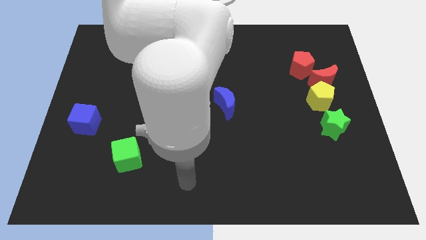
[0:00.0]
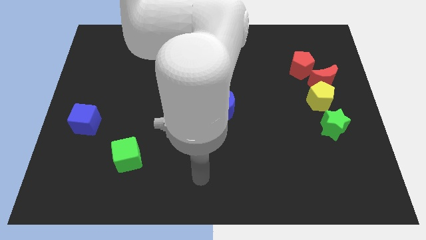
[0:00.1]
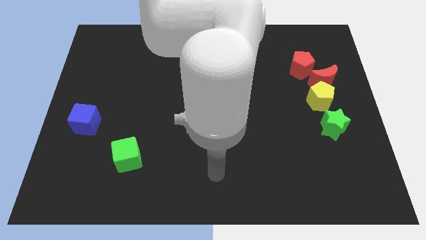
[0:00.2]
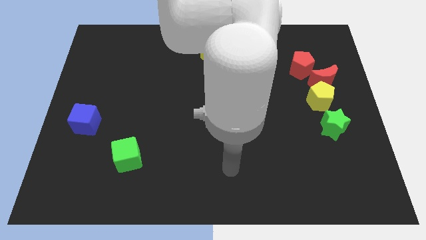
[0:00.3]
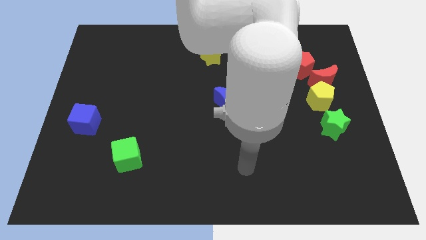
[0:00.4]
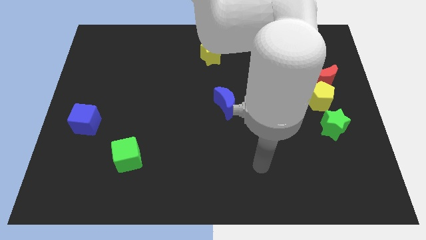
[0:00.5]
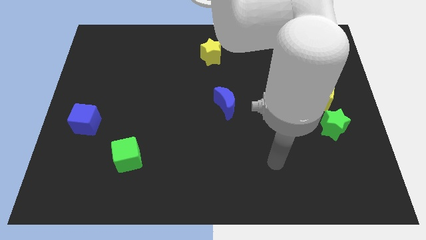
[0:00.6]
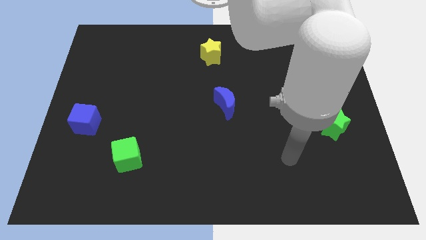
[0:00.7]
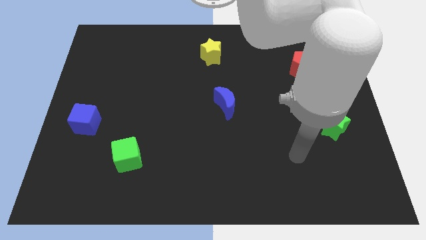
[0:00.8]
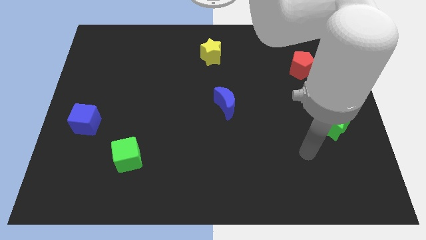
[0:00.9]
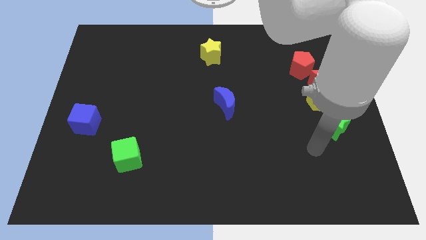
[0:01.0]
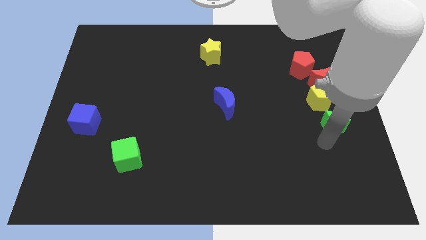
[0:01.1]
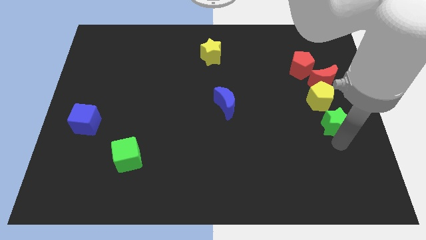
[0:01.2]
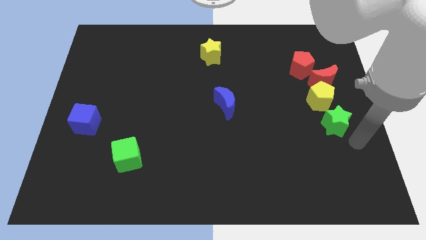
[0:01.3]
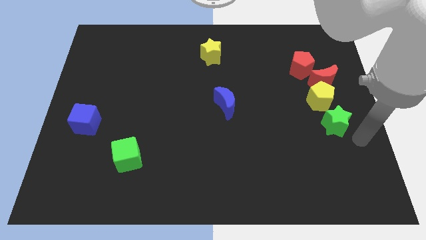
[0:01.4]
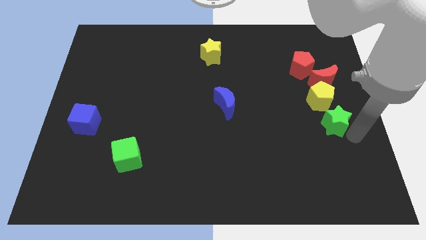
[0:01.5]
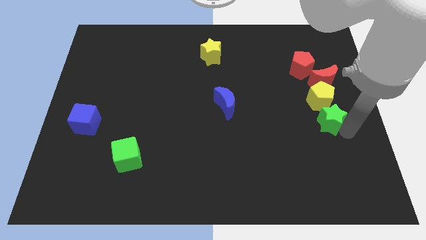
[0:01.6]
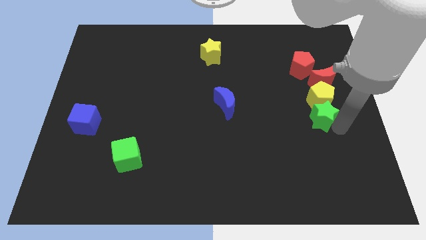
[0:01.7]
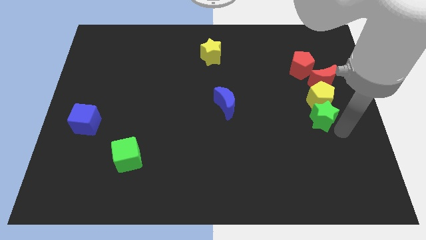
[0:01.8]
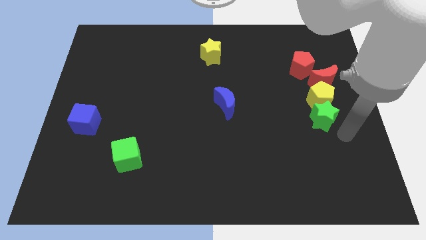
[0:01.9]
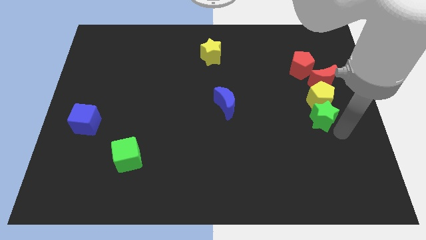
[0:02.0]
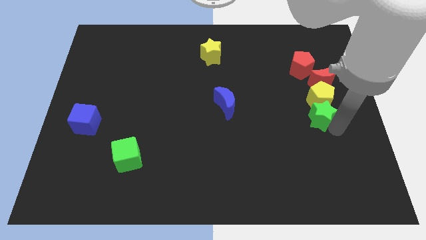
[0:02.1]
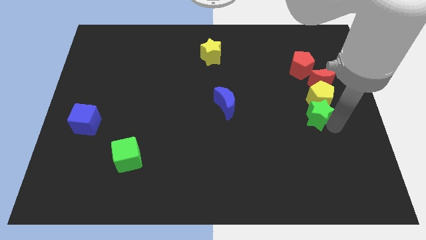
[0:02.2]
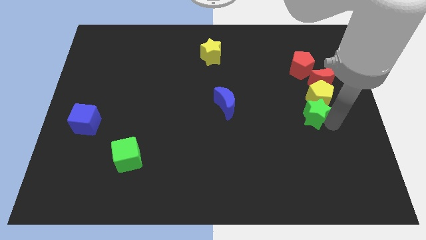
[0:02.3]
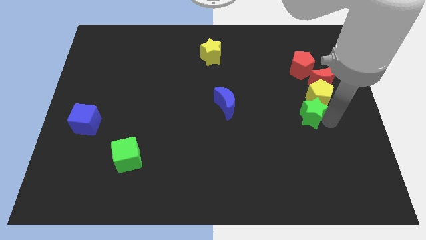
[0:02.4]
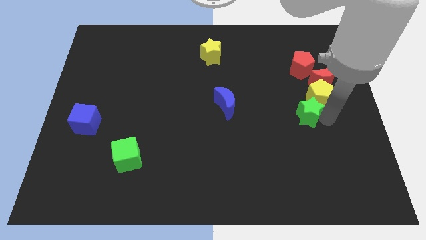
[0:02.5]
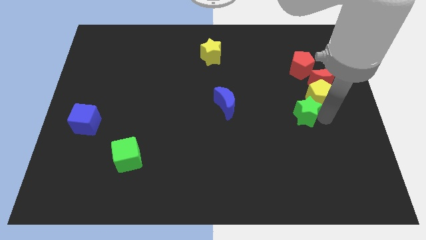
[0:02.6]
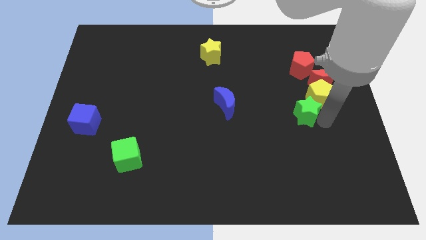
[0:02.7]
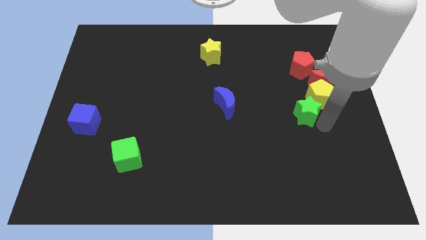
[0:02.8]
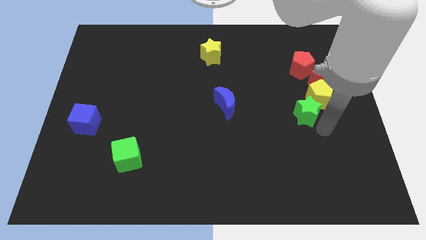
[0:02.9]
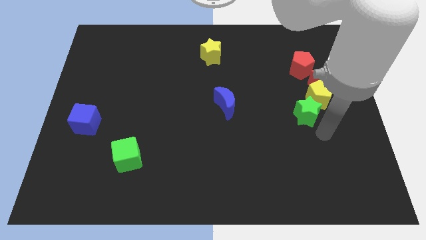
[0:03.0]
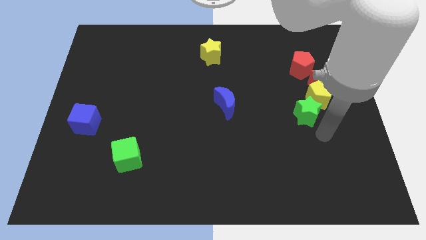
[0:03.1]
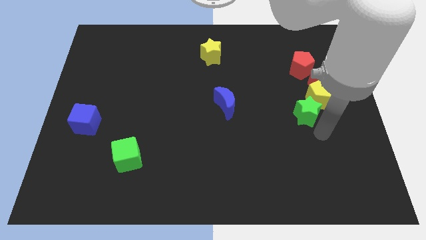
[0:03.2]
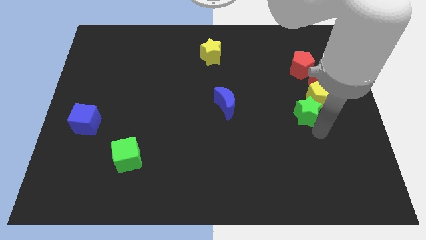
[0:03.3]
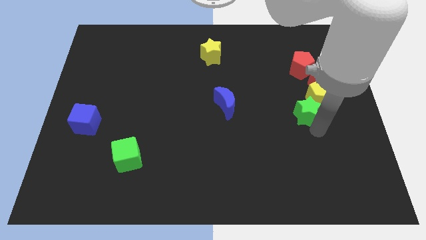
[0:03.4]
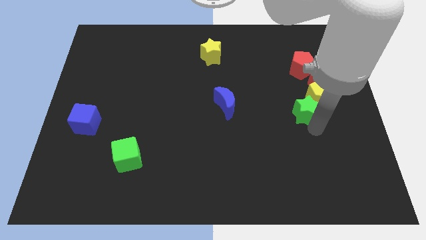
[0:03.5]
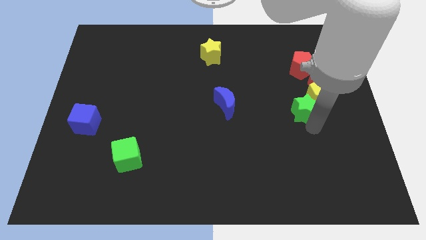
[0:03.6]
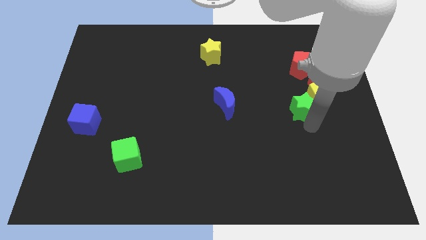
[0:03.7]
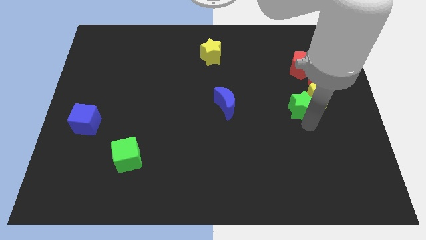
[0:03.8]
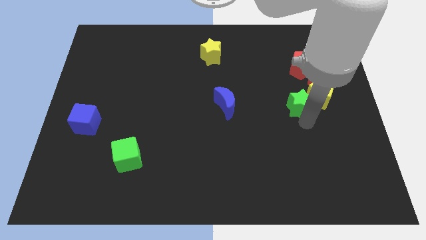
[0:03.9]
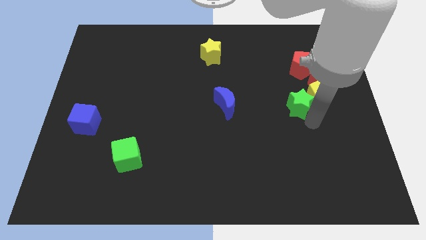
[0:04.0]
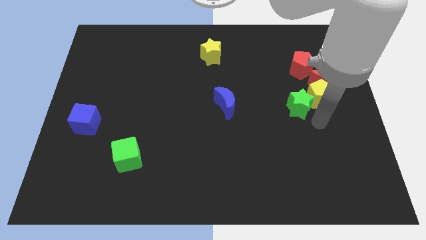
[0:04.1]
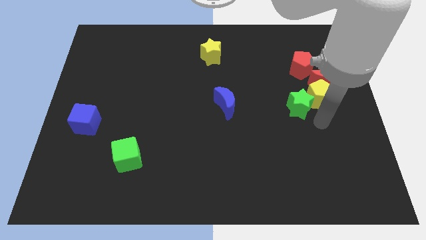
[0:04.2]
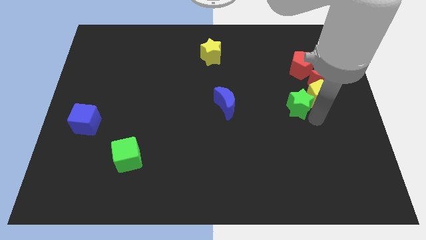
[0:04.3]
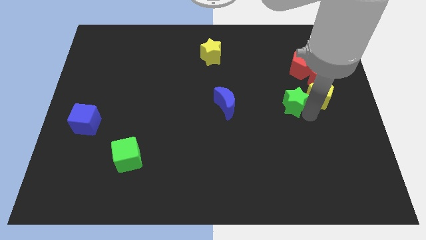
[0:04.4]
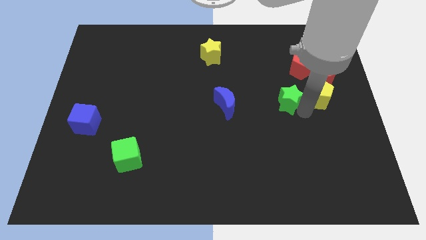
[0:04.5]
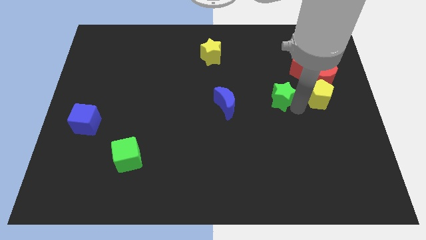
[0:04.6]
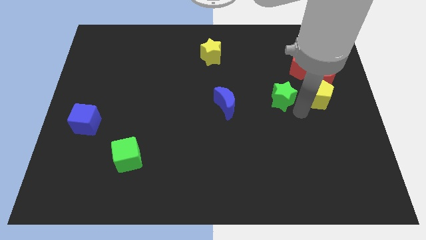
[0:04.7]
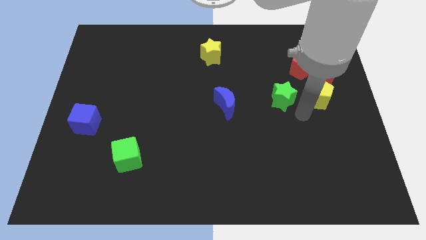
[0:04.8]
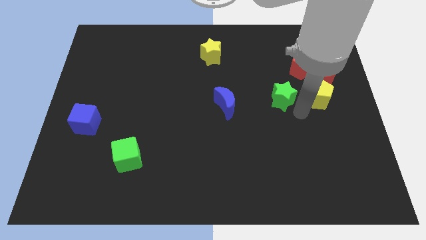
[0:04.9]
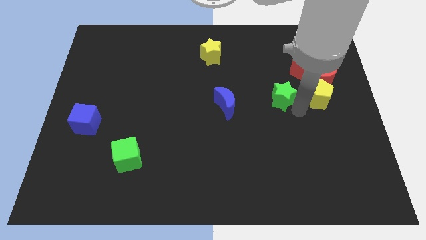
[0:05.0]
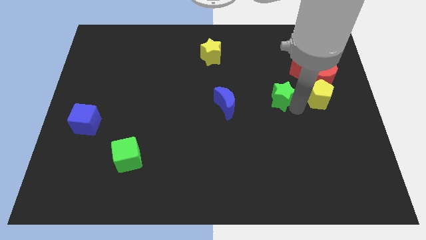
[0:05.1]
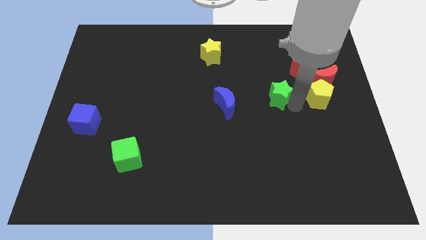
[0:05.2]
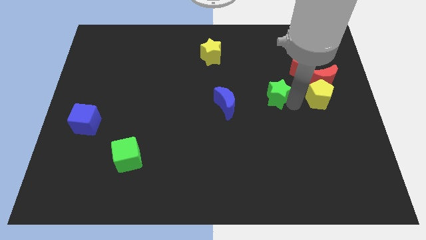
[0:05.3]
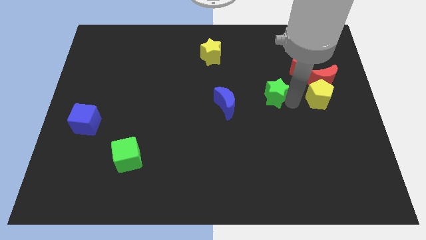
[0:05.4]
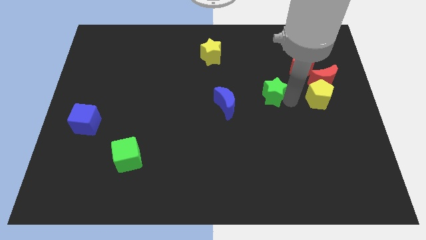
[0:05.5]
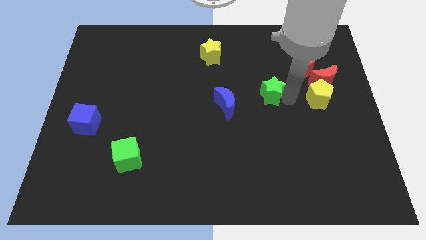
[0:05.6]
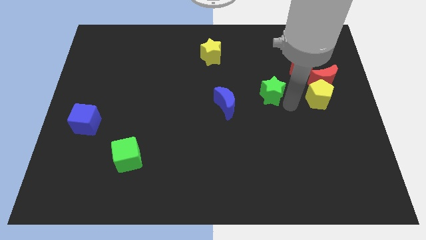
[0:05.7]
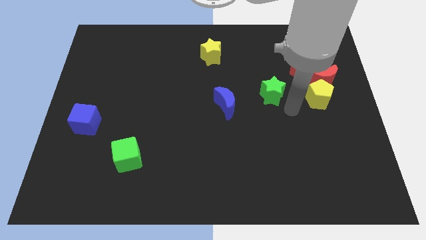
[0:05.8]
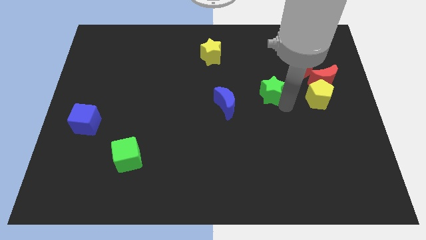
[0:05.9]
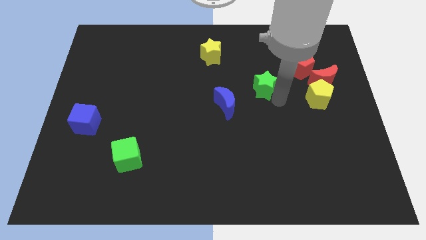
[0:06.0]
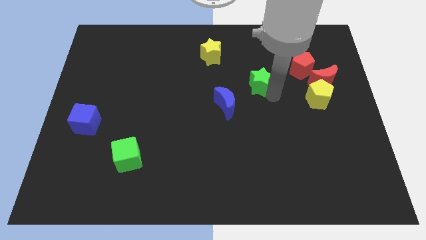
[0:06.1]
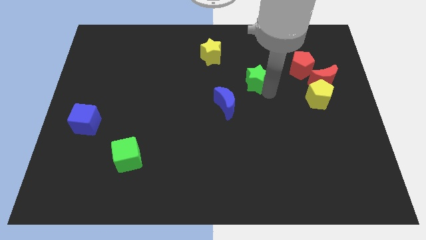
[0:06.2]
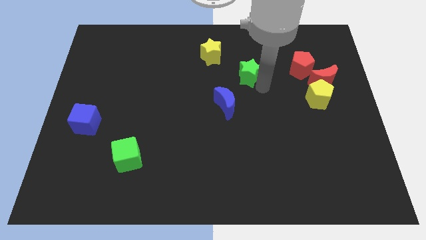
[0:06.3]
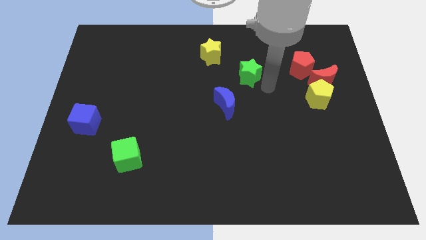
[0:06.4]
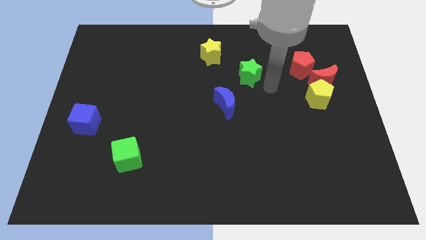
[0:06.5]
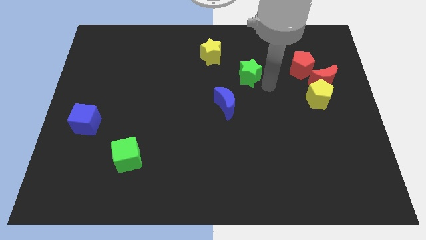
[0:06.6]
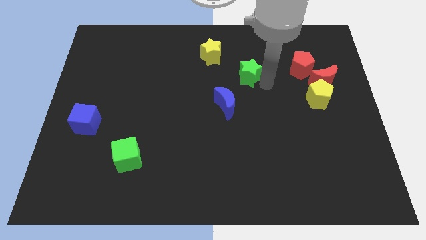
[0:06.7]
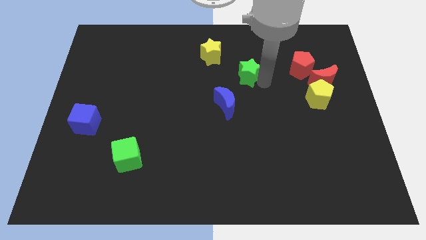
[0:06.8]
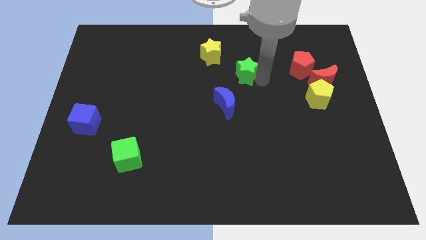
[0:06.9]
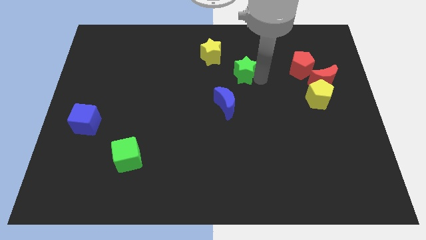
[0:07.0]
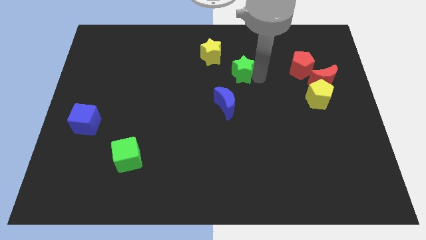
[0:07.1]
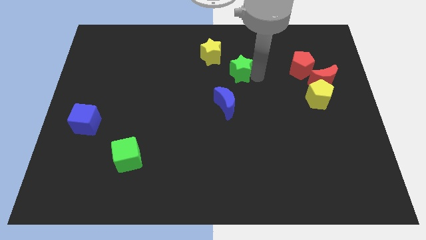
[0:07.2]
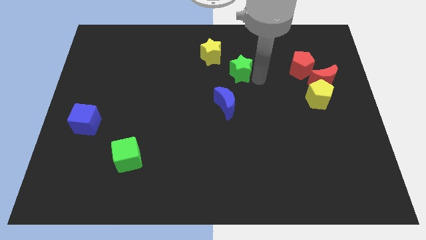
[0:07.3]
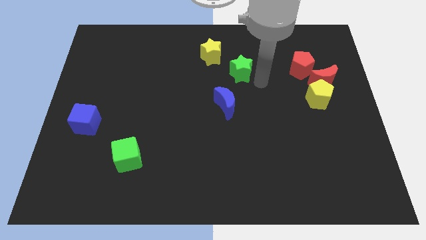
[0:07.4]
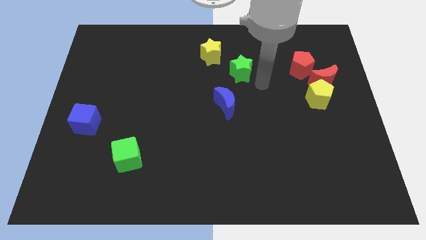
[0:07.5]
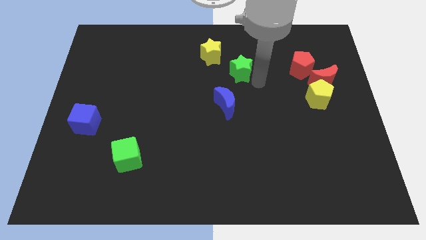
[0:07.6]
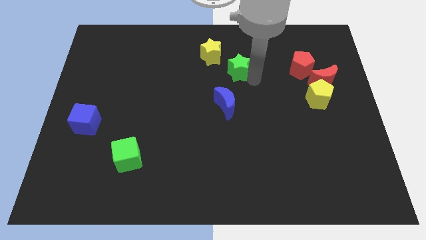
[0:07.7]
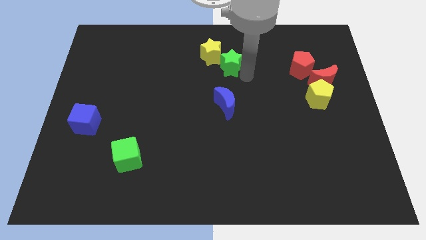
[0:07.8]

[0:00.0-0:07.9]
slide the green star next to the yellow star
